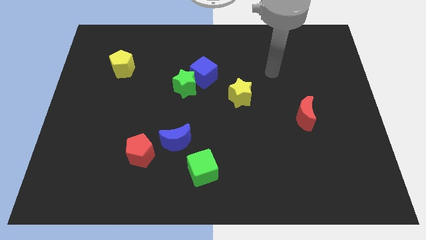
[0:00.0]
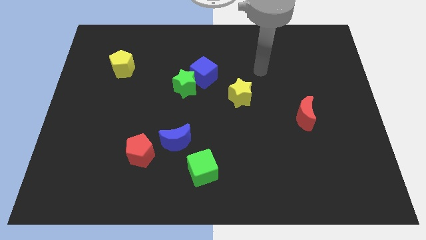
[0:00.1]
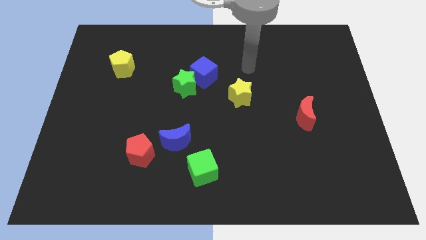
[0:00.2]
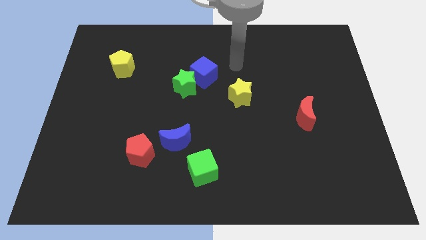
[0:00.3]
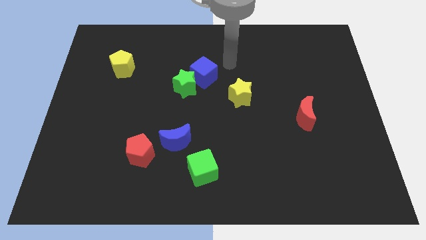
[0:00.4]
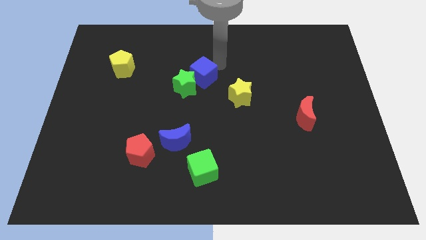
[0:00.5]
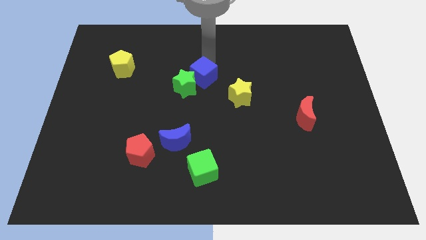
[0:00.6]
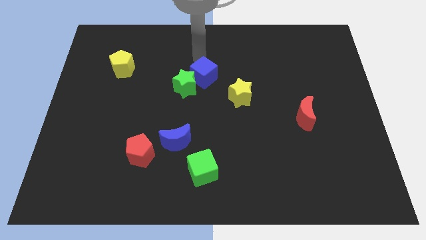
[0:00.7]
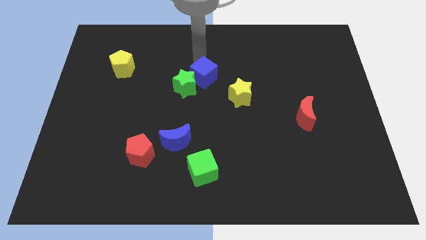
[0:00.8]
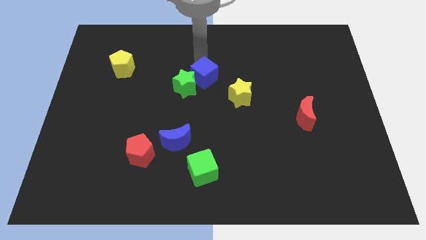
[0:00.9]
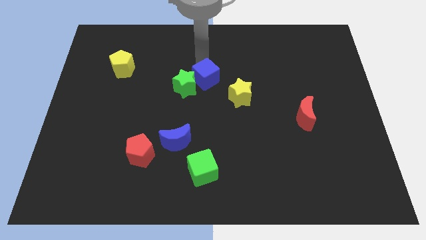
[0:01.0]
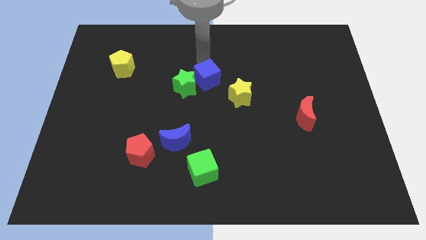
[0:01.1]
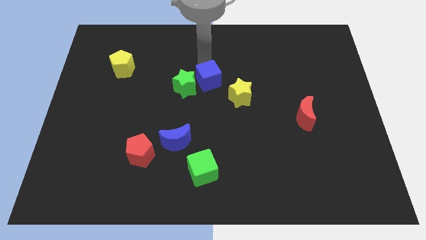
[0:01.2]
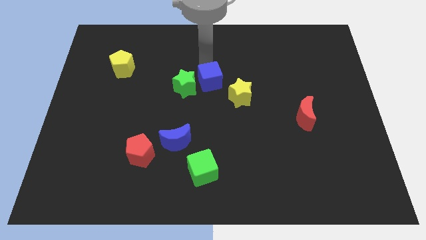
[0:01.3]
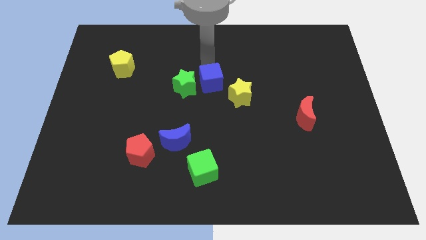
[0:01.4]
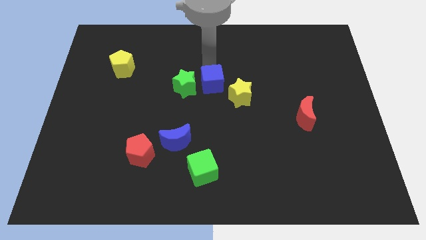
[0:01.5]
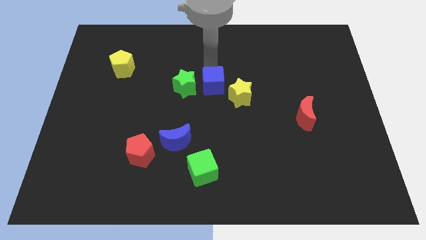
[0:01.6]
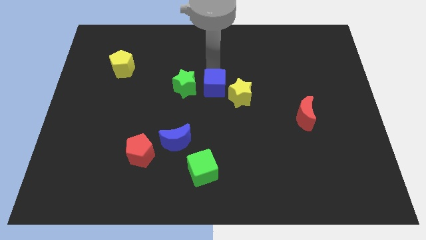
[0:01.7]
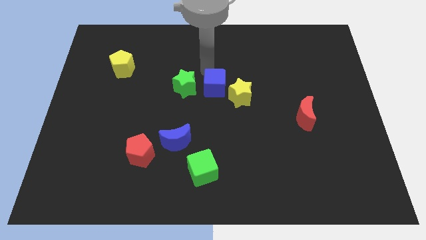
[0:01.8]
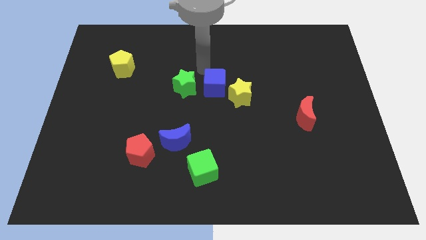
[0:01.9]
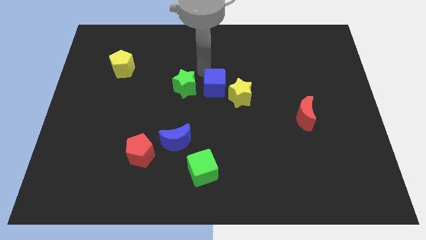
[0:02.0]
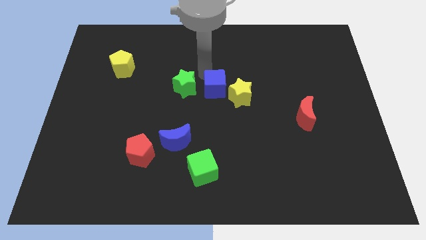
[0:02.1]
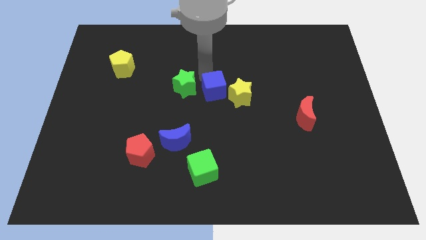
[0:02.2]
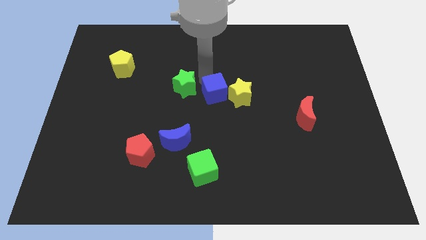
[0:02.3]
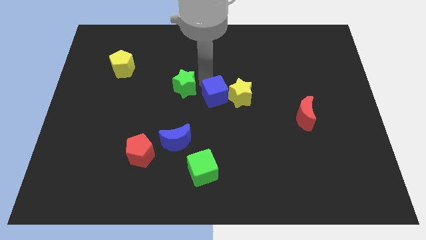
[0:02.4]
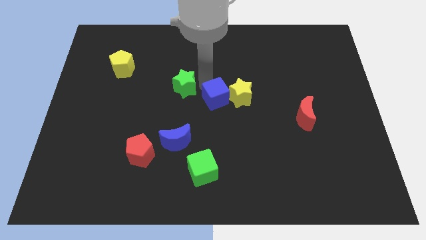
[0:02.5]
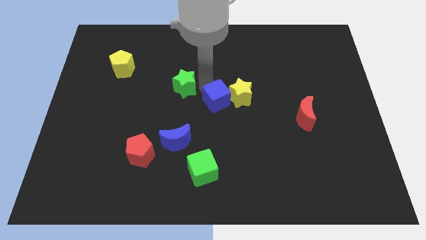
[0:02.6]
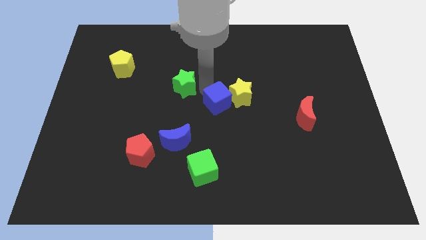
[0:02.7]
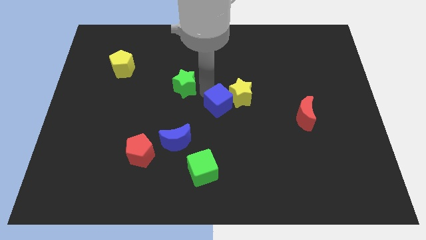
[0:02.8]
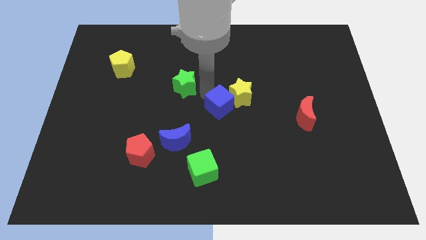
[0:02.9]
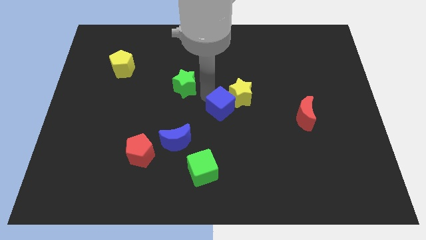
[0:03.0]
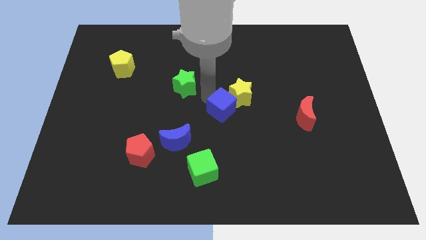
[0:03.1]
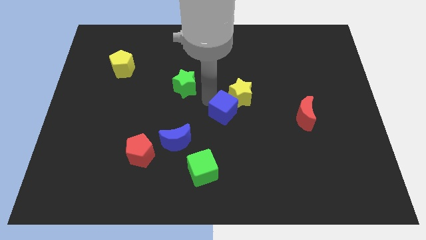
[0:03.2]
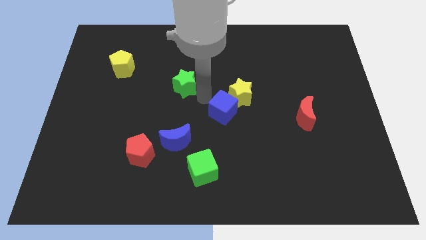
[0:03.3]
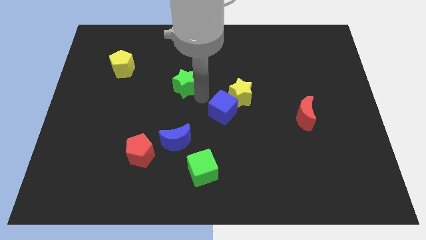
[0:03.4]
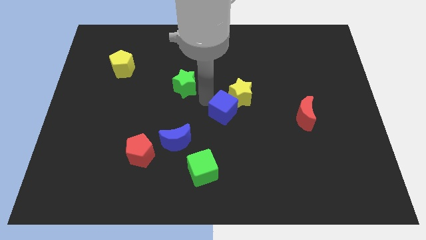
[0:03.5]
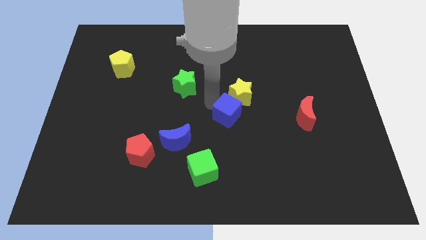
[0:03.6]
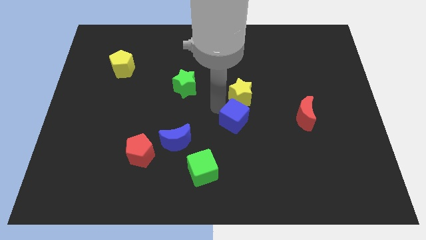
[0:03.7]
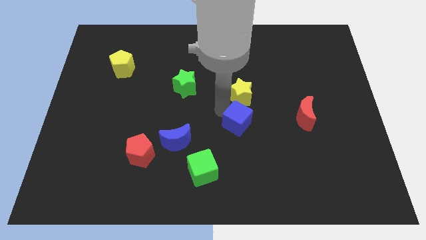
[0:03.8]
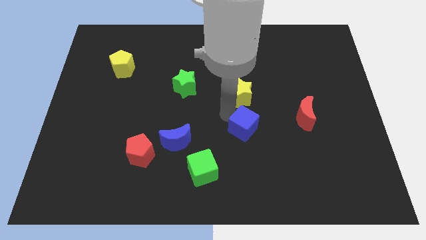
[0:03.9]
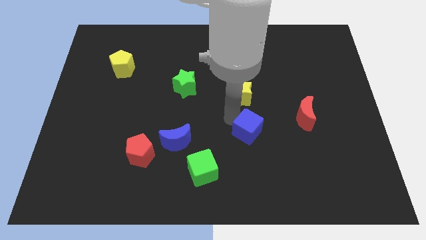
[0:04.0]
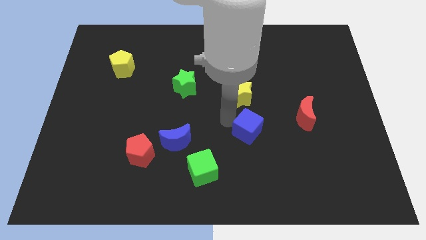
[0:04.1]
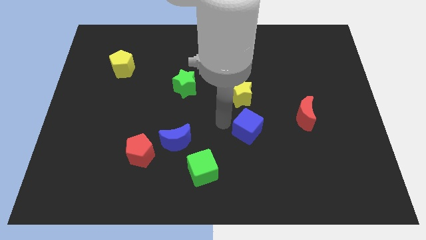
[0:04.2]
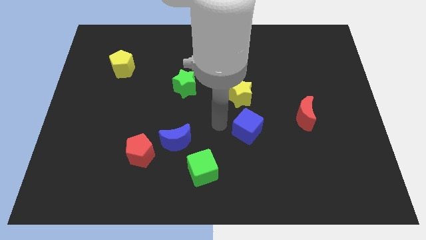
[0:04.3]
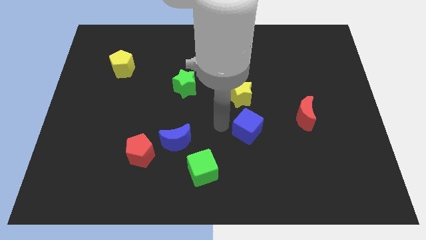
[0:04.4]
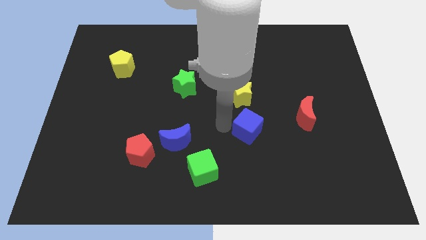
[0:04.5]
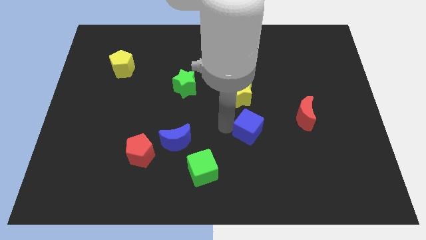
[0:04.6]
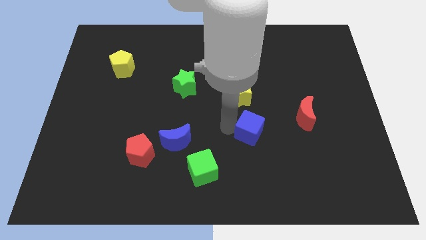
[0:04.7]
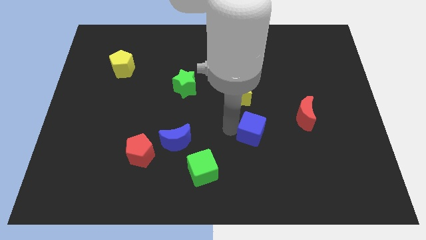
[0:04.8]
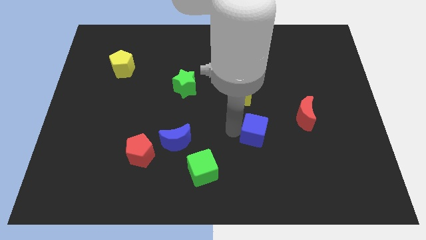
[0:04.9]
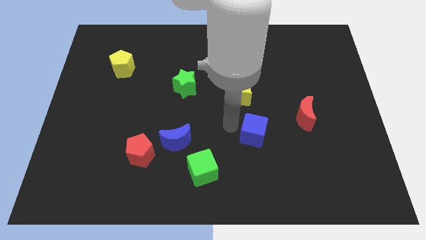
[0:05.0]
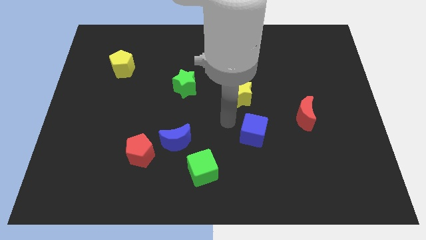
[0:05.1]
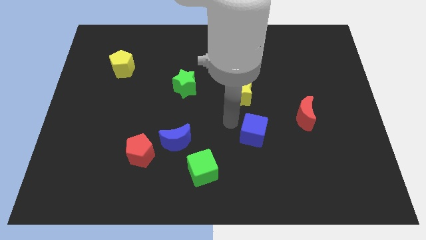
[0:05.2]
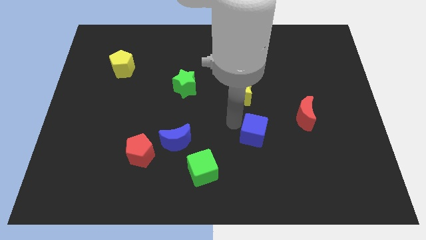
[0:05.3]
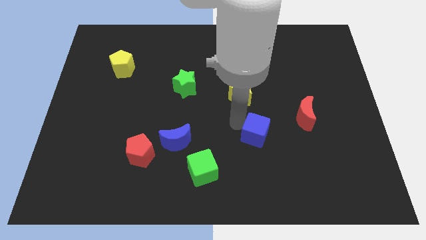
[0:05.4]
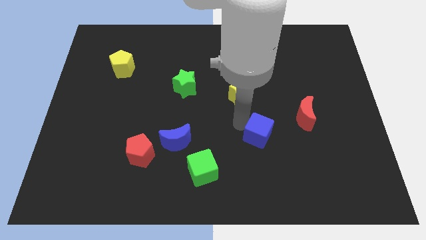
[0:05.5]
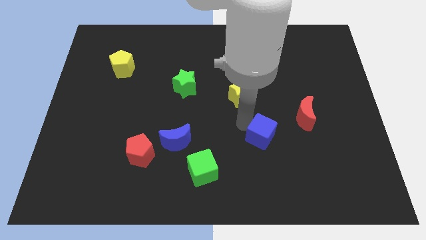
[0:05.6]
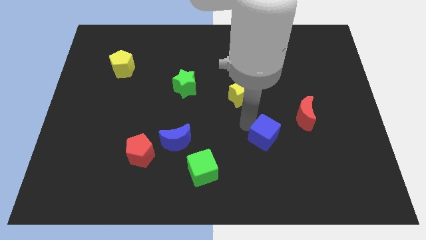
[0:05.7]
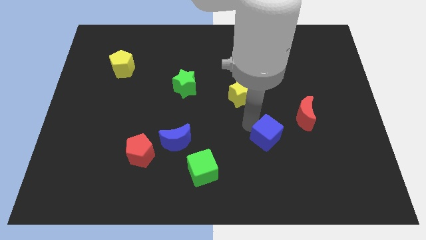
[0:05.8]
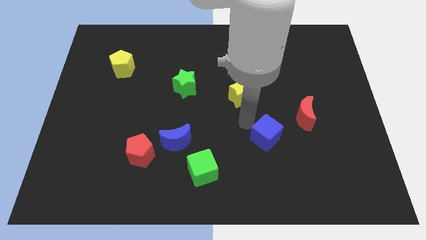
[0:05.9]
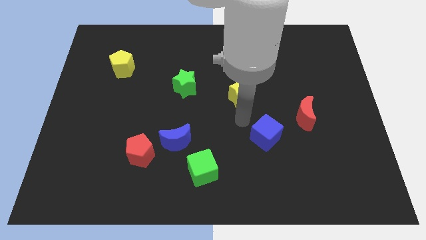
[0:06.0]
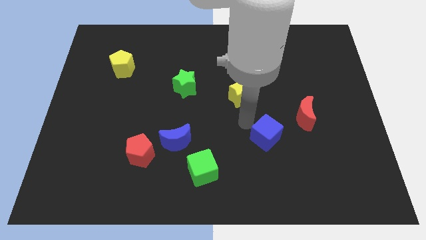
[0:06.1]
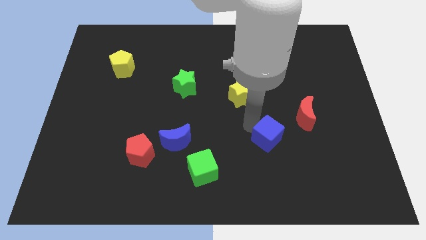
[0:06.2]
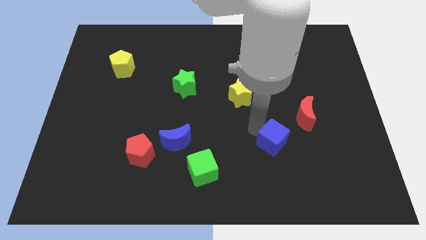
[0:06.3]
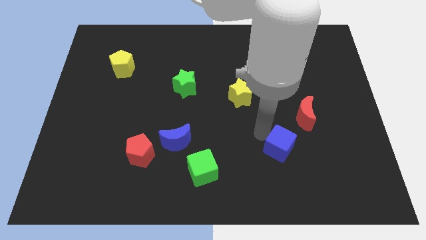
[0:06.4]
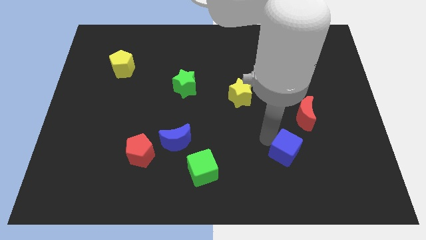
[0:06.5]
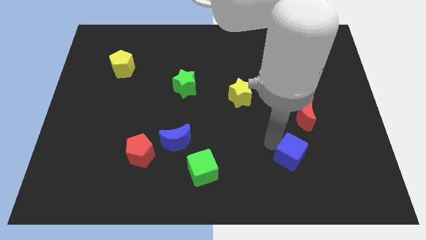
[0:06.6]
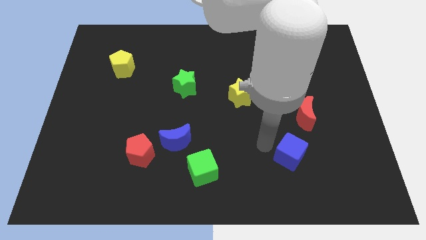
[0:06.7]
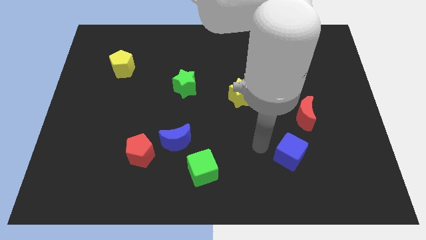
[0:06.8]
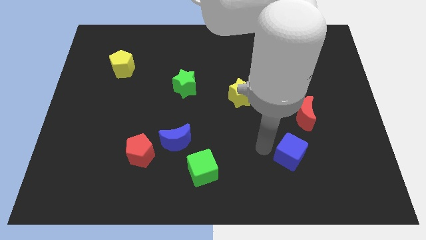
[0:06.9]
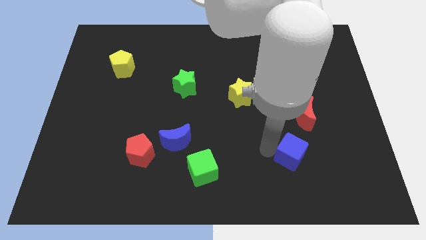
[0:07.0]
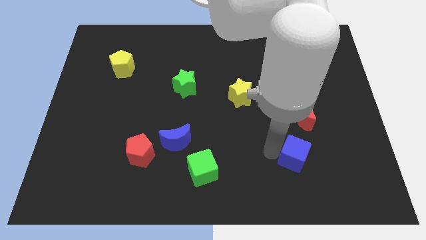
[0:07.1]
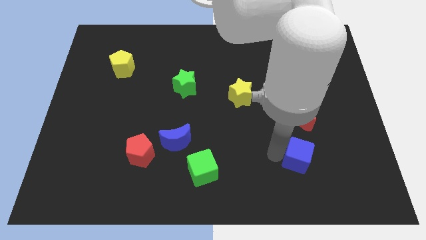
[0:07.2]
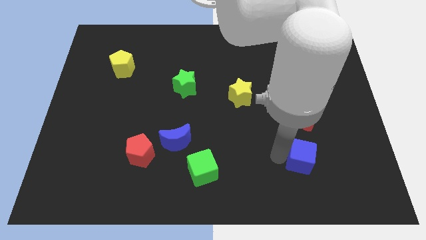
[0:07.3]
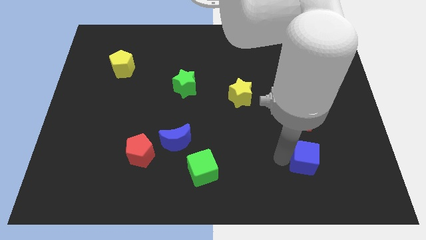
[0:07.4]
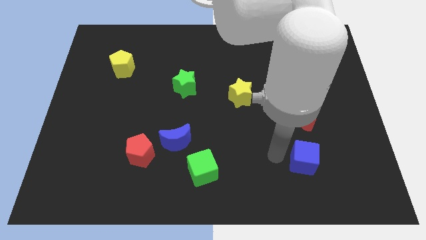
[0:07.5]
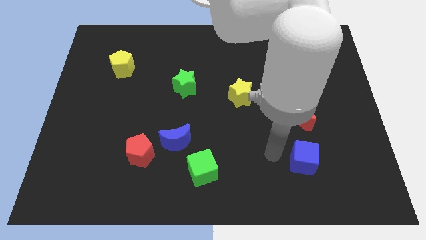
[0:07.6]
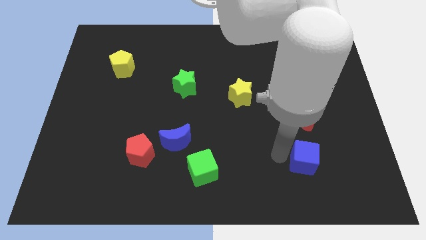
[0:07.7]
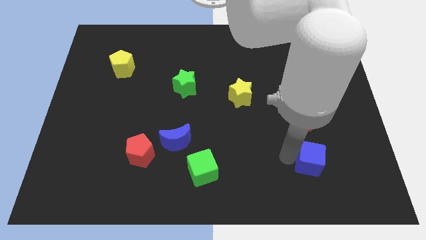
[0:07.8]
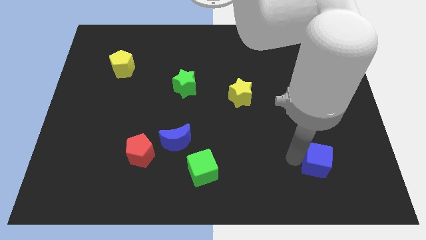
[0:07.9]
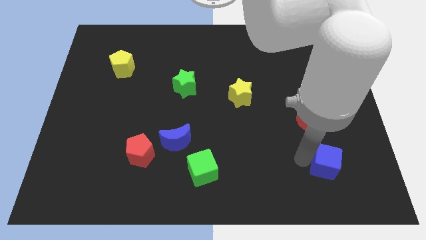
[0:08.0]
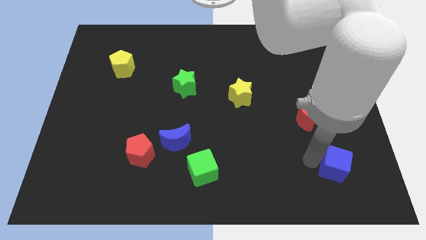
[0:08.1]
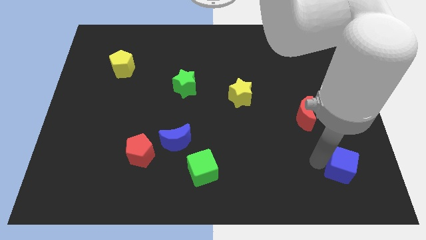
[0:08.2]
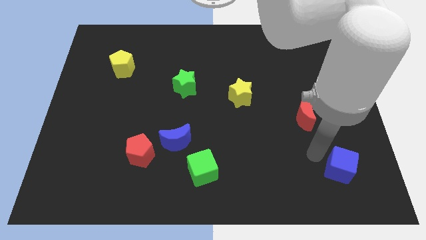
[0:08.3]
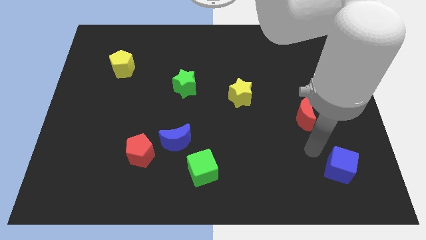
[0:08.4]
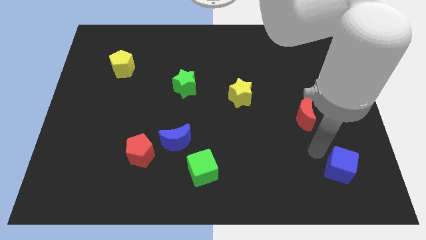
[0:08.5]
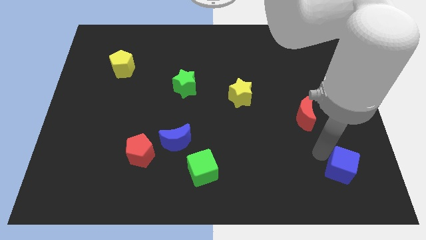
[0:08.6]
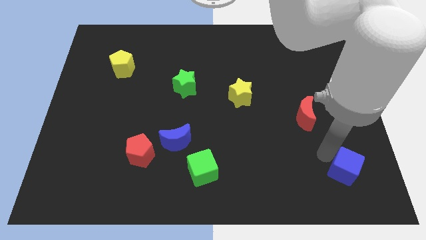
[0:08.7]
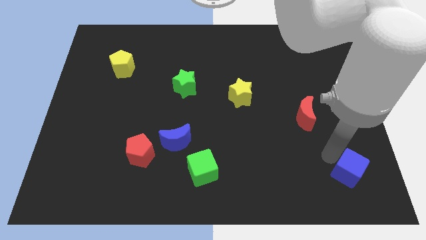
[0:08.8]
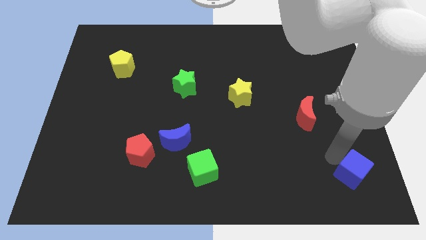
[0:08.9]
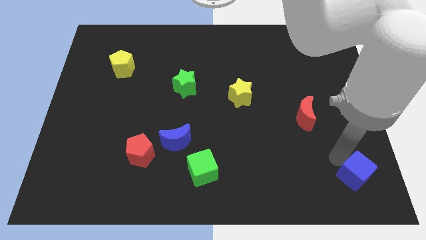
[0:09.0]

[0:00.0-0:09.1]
slide the blue cube to the bottom right
